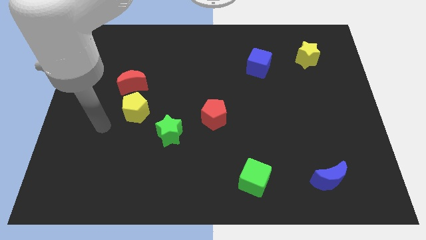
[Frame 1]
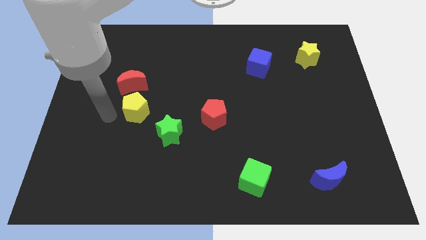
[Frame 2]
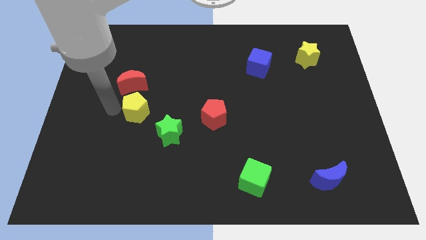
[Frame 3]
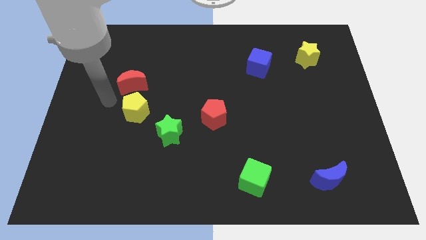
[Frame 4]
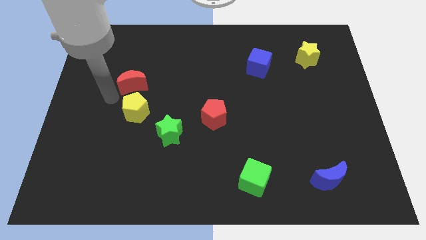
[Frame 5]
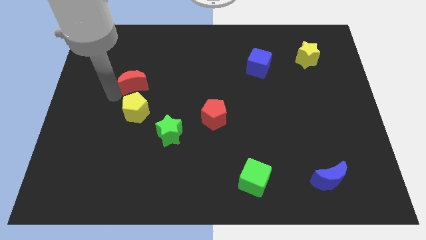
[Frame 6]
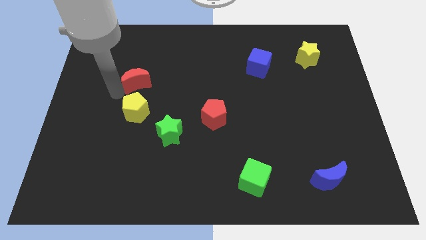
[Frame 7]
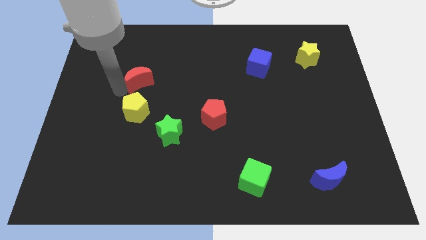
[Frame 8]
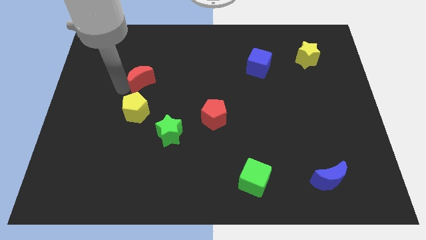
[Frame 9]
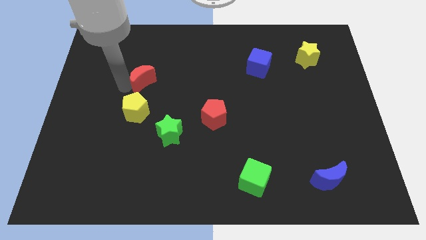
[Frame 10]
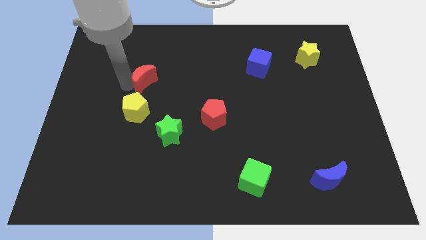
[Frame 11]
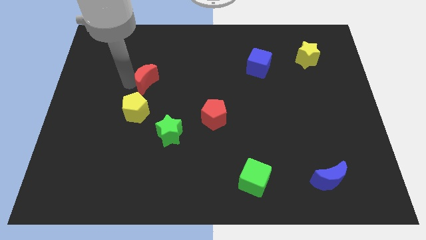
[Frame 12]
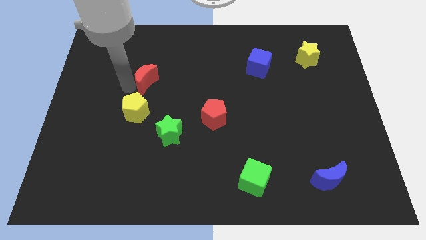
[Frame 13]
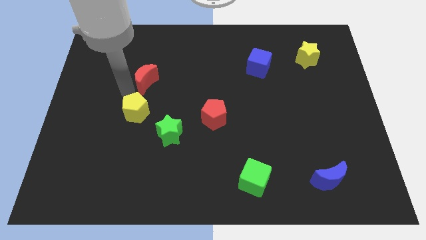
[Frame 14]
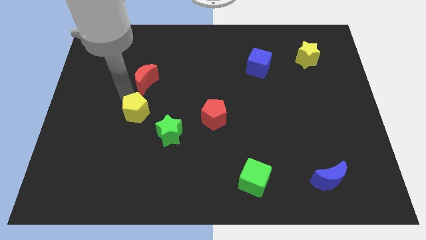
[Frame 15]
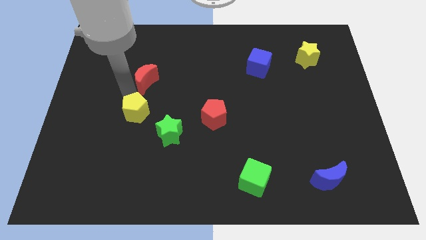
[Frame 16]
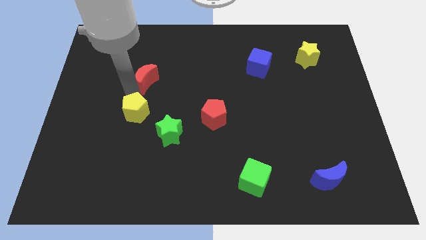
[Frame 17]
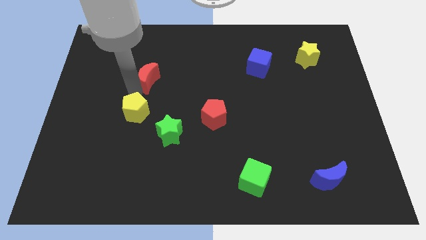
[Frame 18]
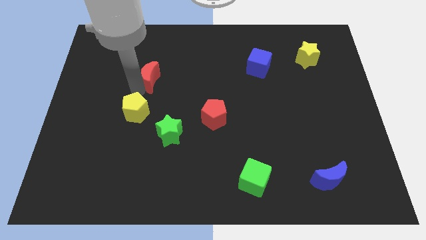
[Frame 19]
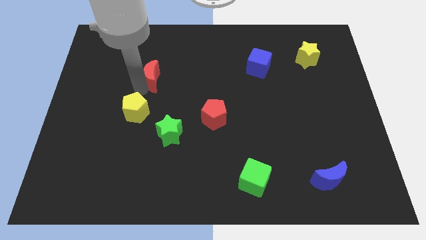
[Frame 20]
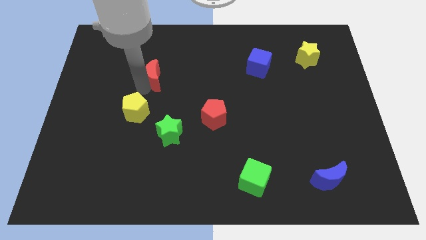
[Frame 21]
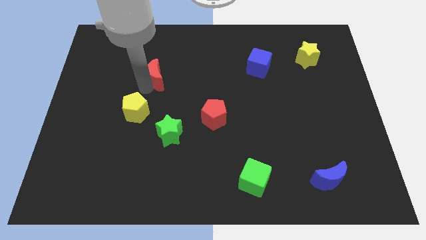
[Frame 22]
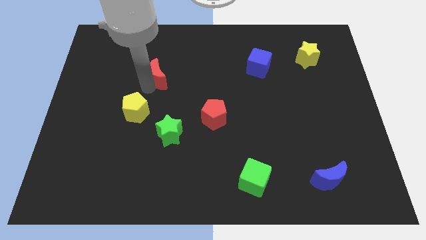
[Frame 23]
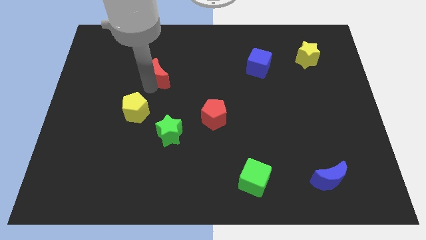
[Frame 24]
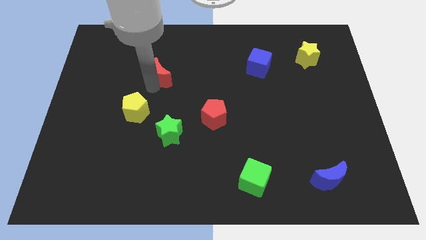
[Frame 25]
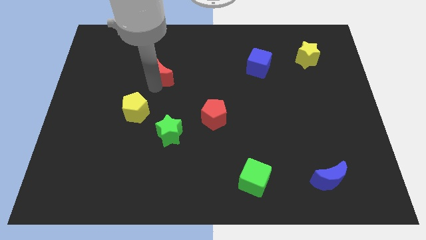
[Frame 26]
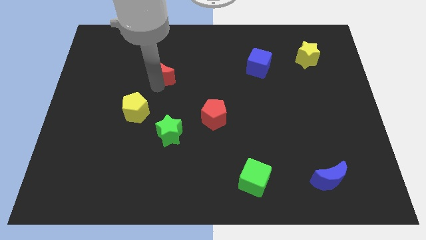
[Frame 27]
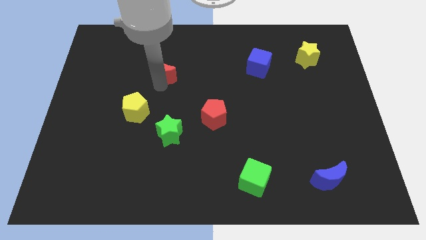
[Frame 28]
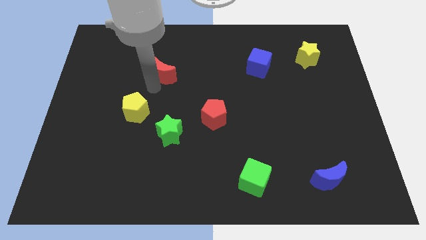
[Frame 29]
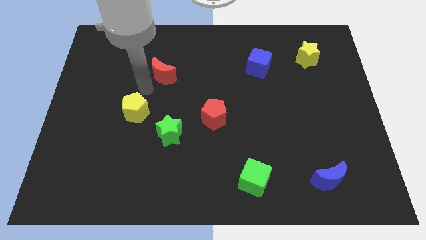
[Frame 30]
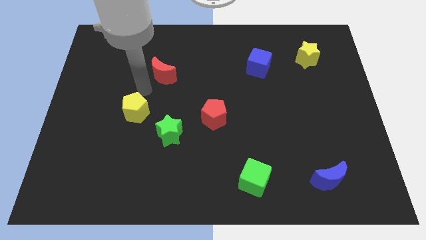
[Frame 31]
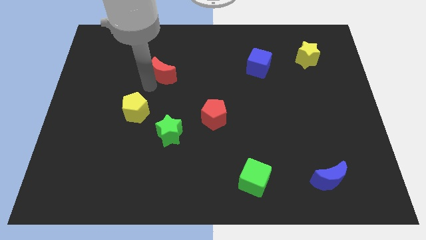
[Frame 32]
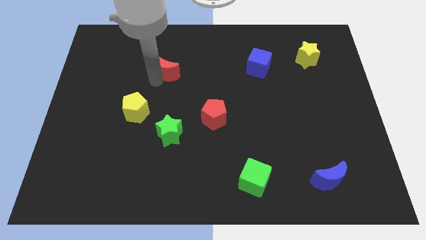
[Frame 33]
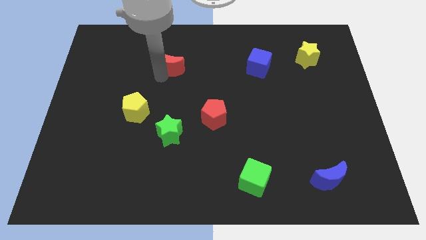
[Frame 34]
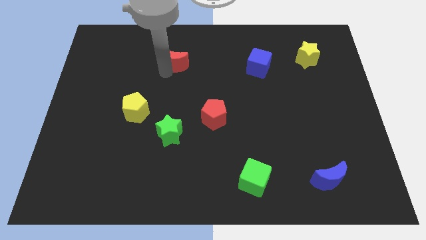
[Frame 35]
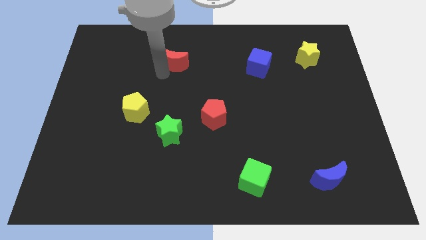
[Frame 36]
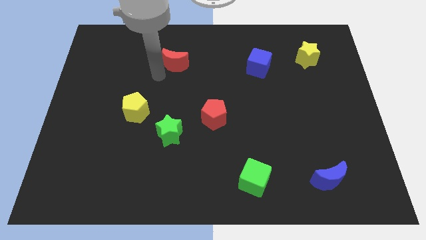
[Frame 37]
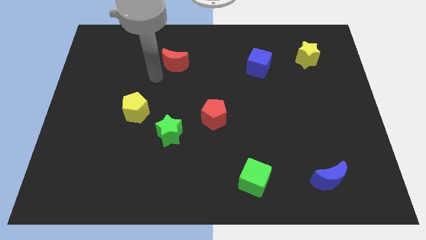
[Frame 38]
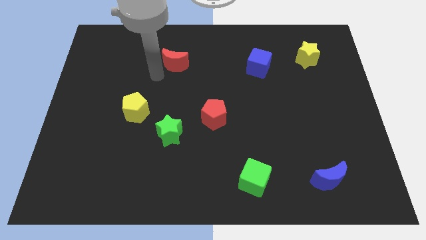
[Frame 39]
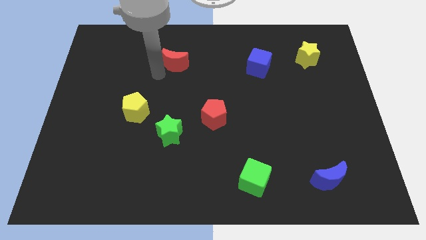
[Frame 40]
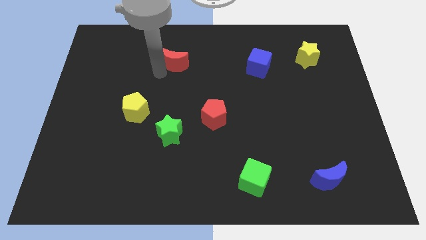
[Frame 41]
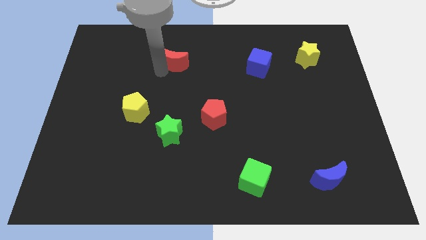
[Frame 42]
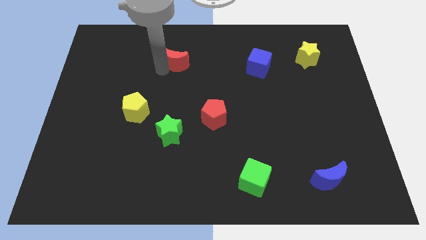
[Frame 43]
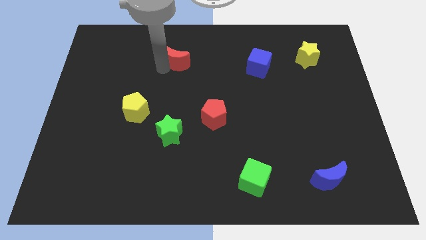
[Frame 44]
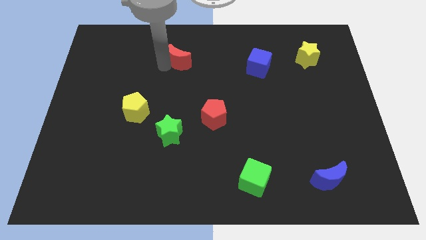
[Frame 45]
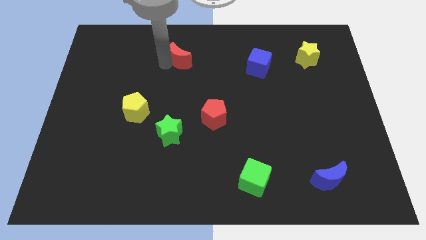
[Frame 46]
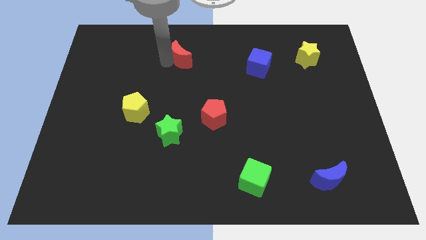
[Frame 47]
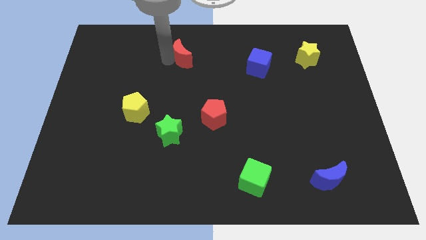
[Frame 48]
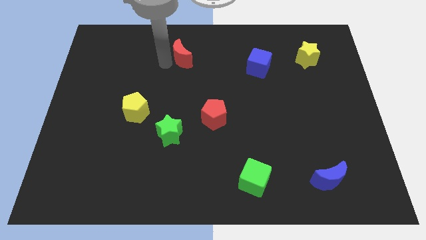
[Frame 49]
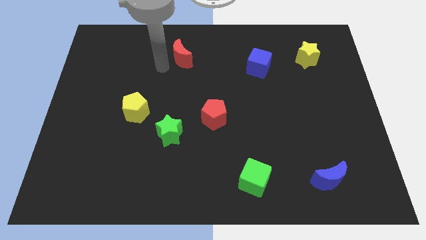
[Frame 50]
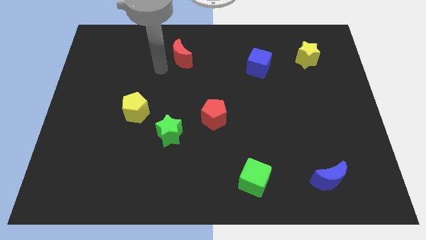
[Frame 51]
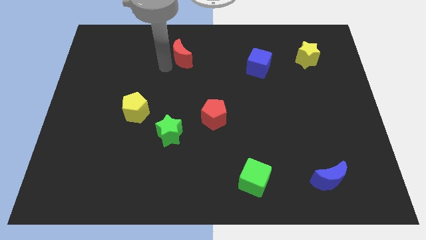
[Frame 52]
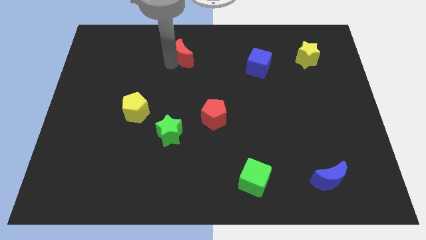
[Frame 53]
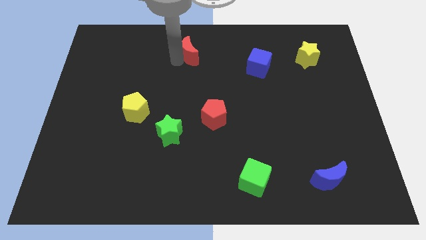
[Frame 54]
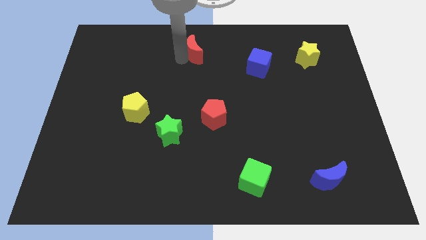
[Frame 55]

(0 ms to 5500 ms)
push the red moon to the top side

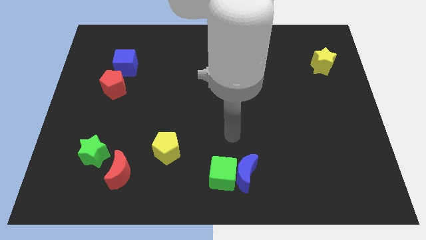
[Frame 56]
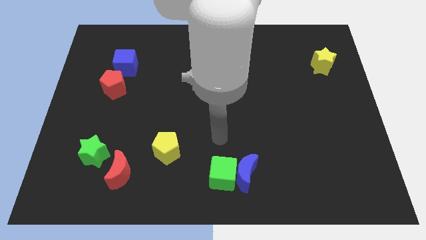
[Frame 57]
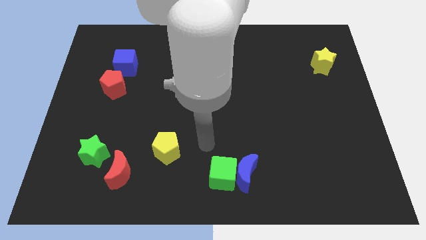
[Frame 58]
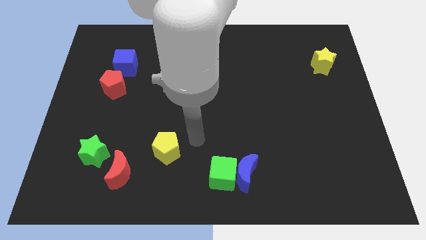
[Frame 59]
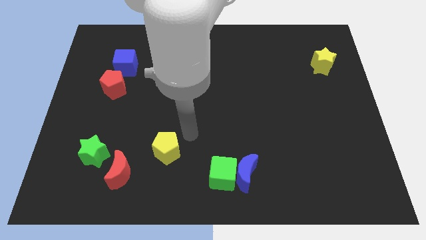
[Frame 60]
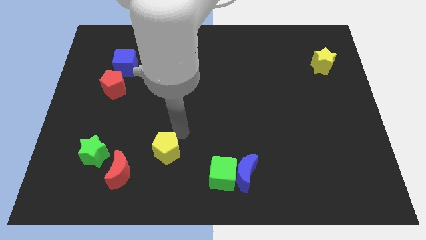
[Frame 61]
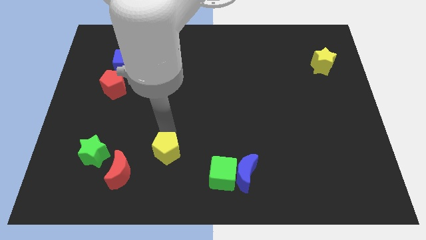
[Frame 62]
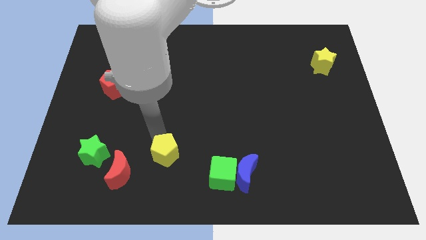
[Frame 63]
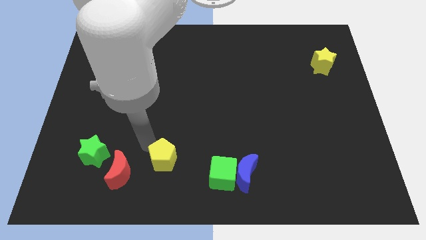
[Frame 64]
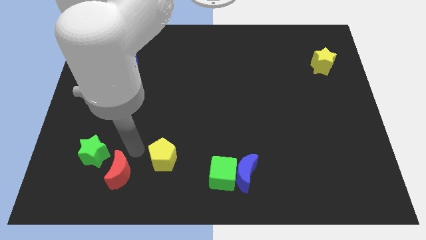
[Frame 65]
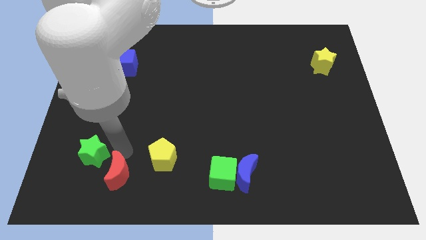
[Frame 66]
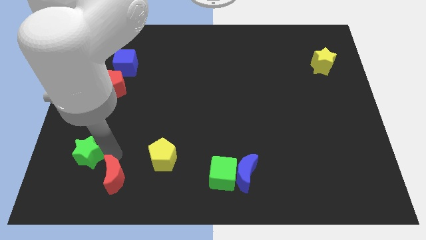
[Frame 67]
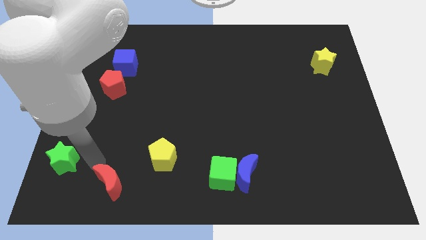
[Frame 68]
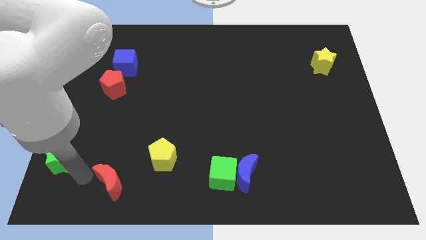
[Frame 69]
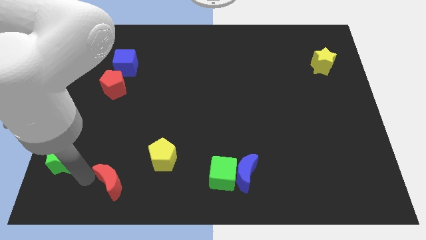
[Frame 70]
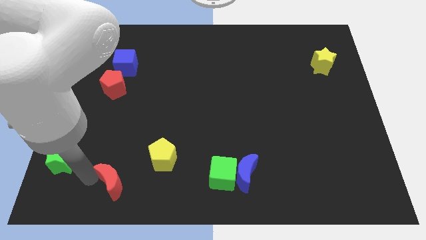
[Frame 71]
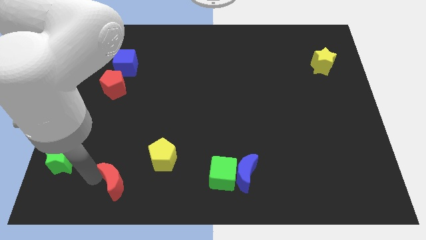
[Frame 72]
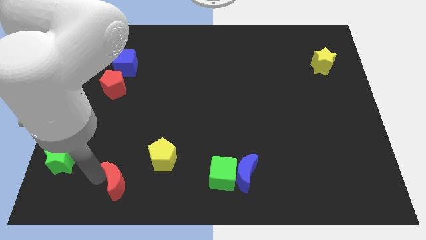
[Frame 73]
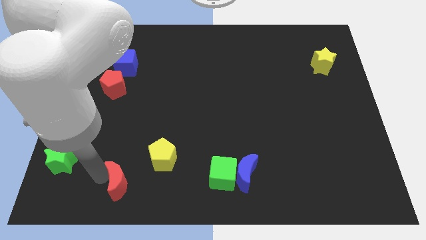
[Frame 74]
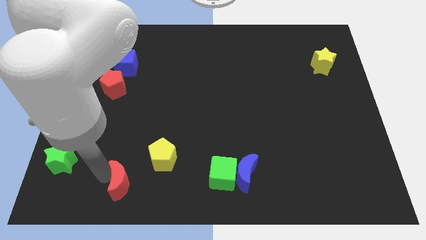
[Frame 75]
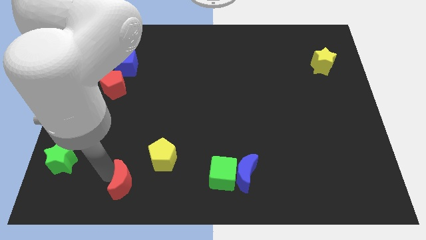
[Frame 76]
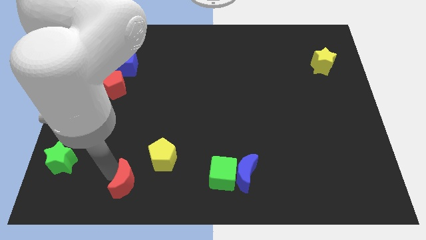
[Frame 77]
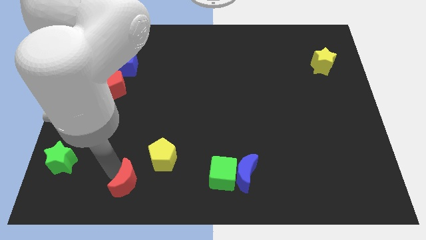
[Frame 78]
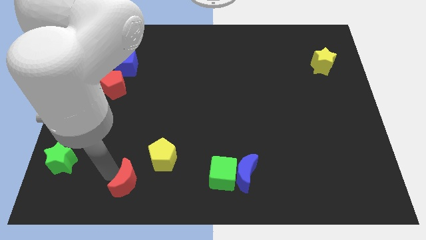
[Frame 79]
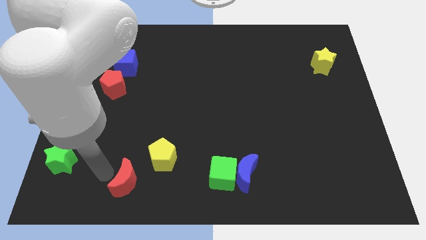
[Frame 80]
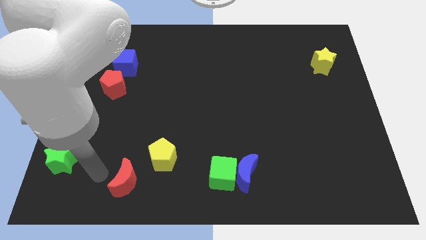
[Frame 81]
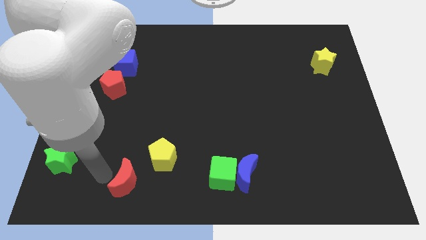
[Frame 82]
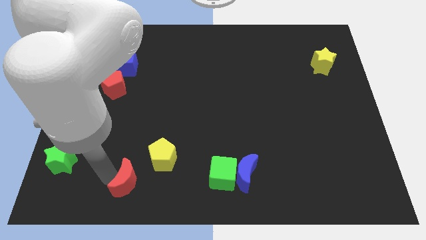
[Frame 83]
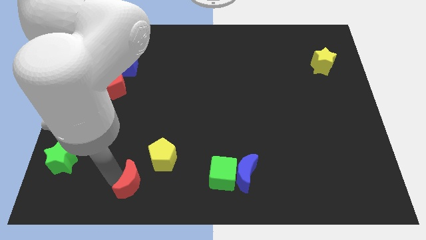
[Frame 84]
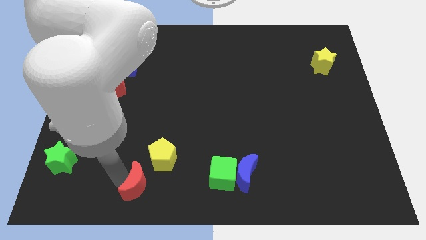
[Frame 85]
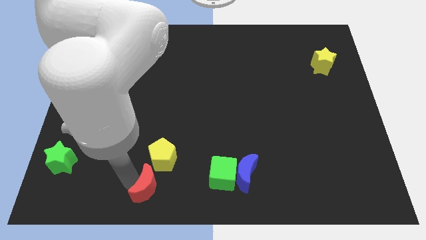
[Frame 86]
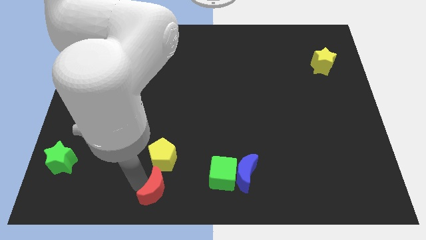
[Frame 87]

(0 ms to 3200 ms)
slide the red moon to the bottom side
